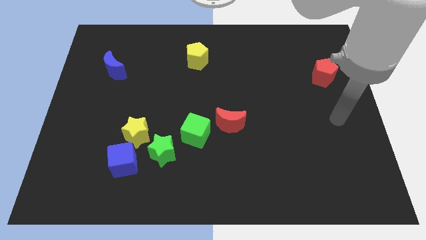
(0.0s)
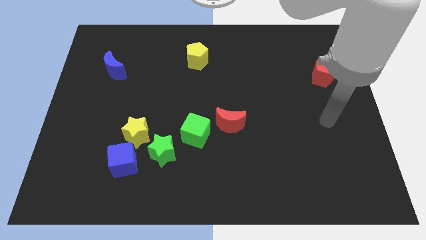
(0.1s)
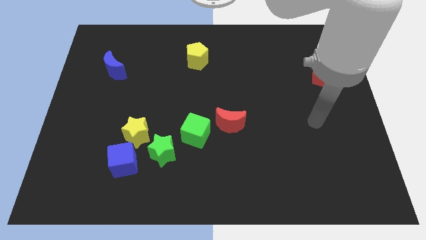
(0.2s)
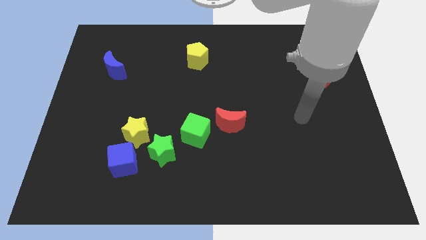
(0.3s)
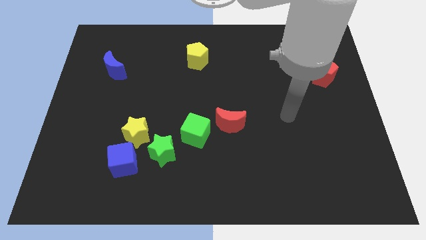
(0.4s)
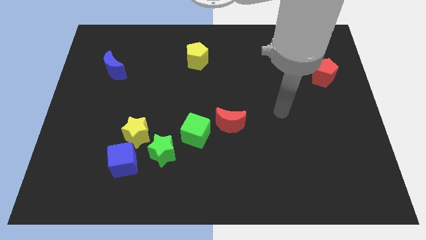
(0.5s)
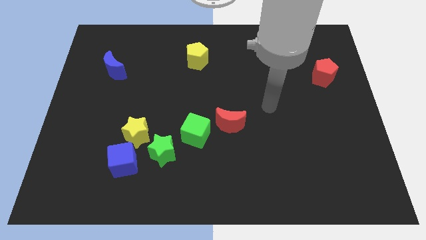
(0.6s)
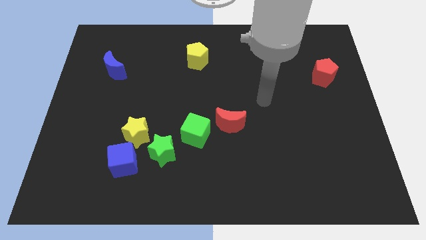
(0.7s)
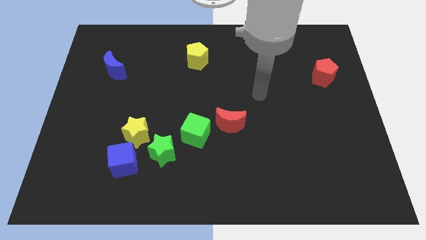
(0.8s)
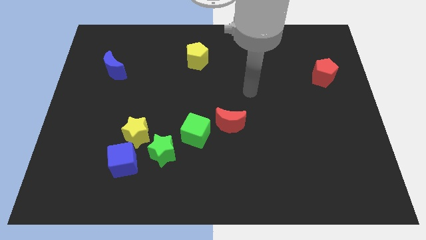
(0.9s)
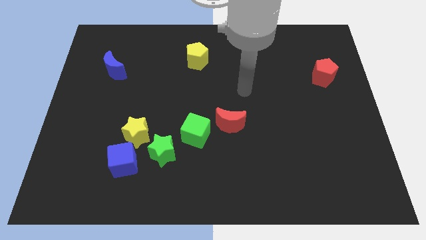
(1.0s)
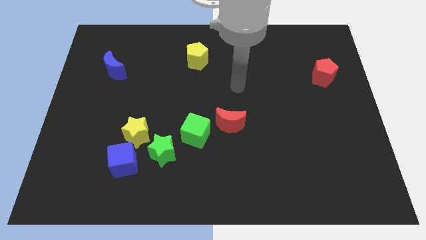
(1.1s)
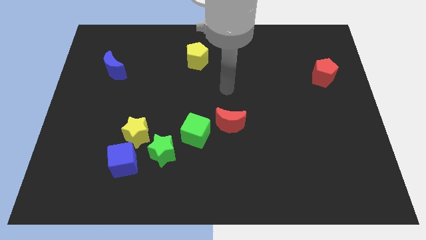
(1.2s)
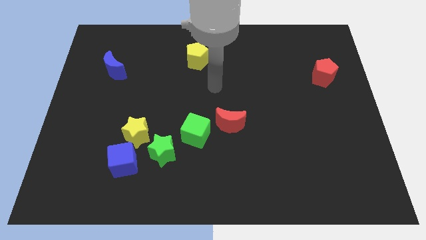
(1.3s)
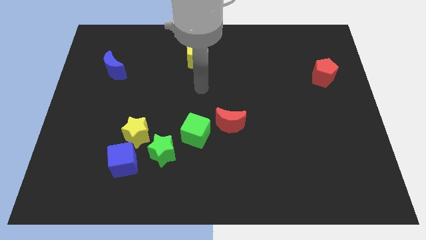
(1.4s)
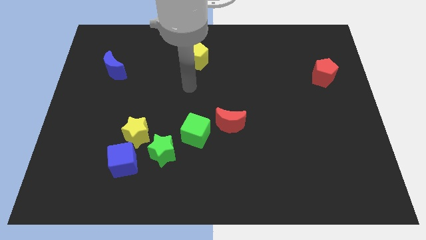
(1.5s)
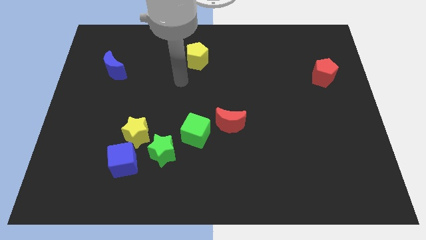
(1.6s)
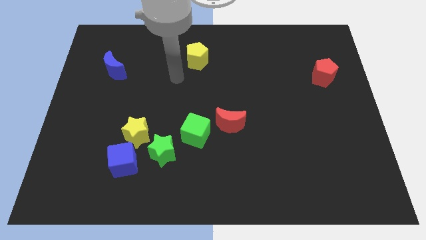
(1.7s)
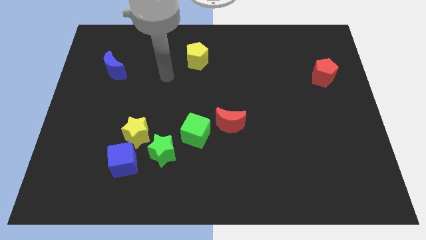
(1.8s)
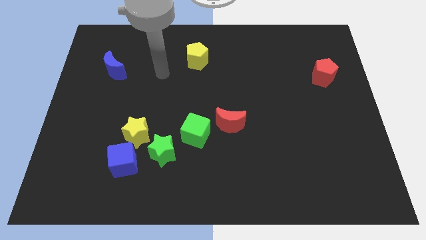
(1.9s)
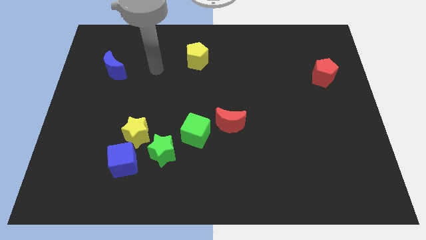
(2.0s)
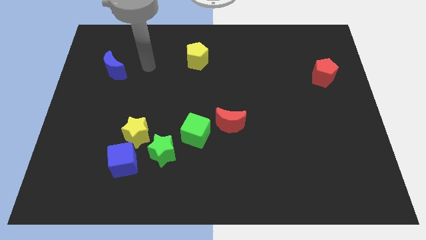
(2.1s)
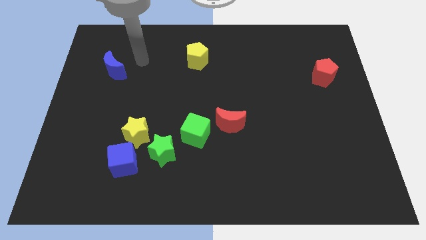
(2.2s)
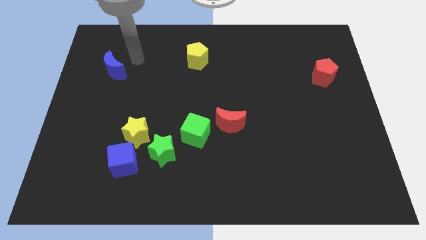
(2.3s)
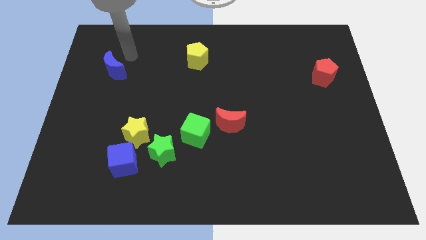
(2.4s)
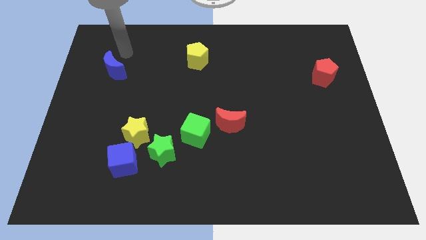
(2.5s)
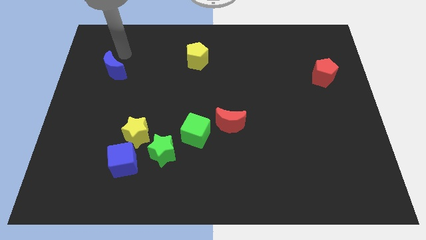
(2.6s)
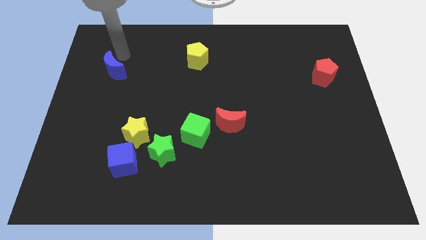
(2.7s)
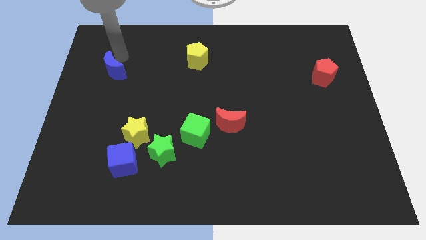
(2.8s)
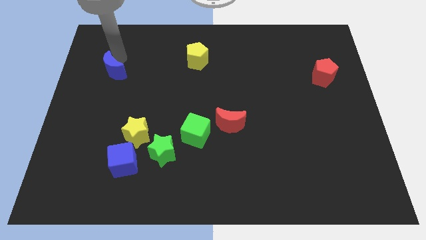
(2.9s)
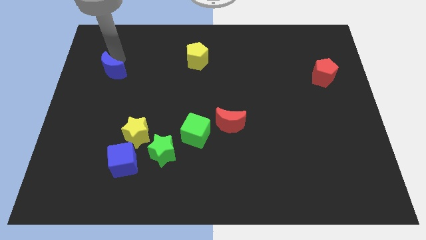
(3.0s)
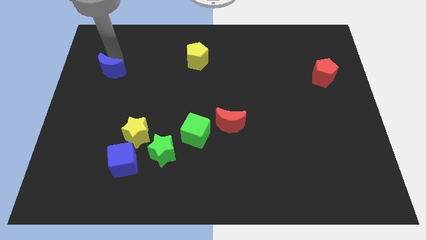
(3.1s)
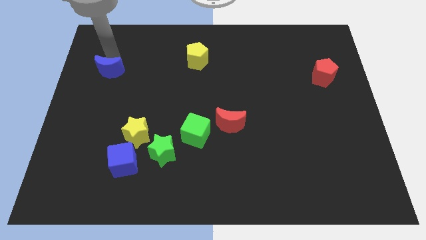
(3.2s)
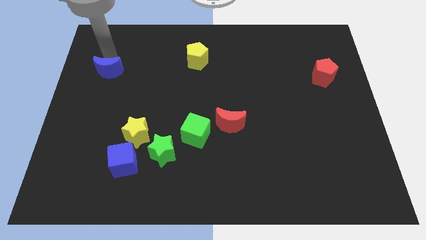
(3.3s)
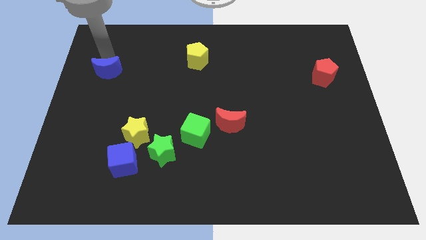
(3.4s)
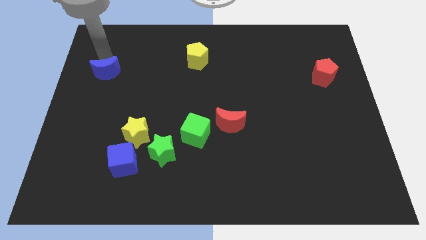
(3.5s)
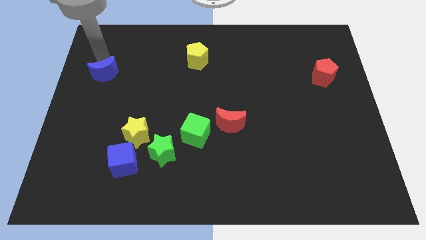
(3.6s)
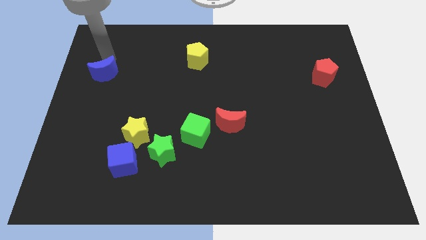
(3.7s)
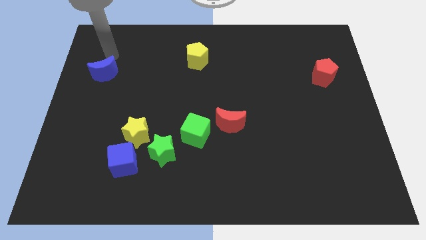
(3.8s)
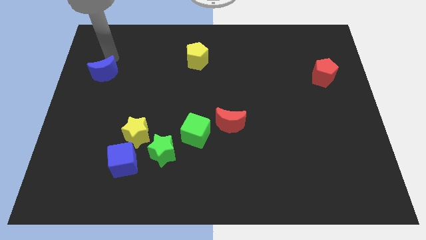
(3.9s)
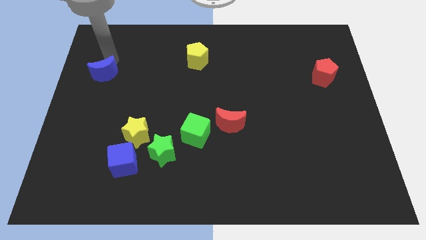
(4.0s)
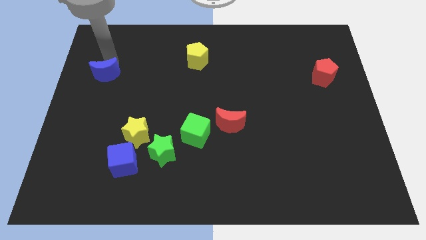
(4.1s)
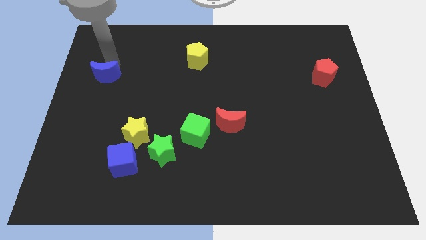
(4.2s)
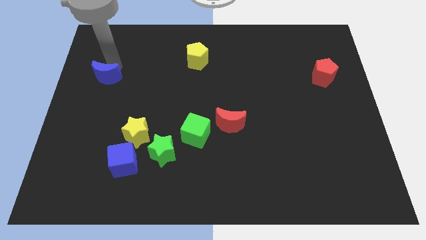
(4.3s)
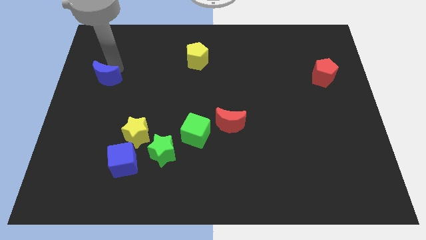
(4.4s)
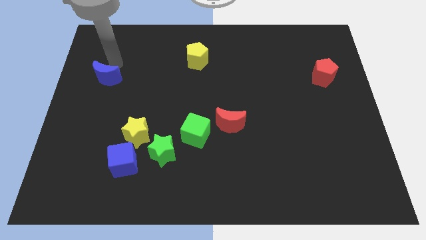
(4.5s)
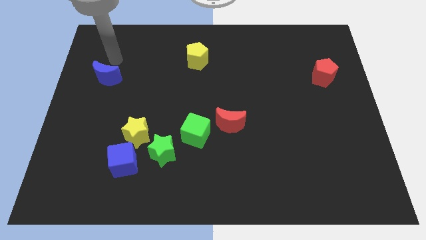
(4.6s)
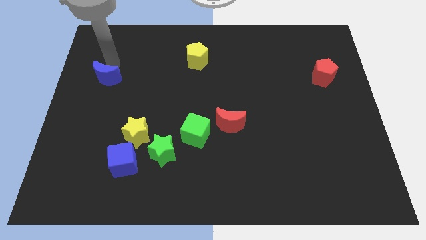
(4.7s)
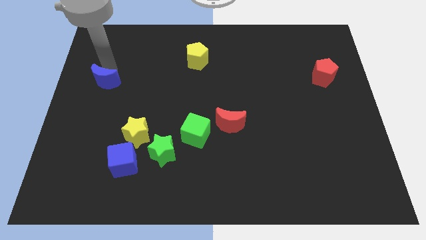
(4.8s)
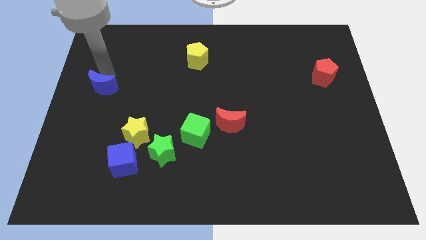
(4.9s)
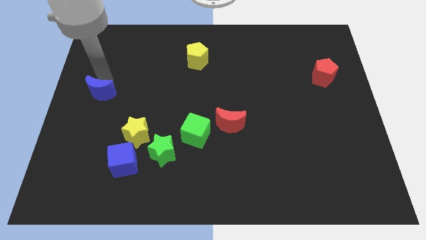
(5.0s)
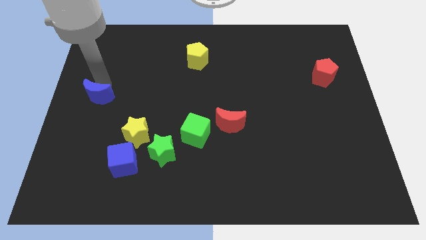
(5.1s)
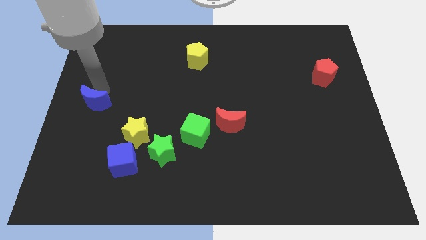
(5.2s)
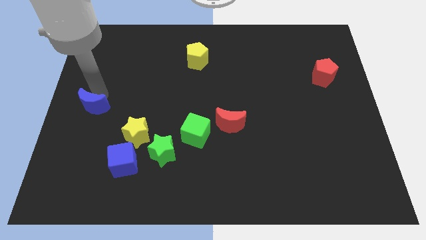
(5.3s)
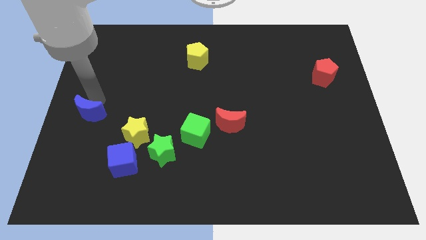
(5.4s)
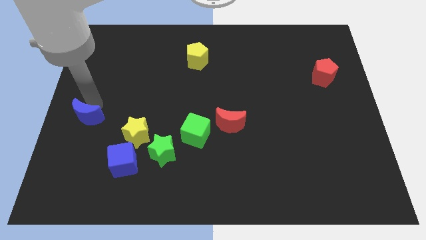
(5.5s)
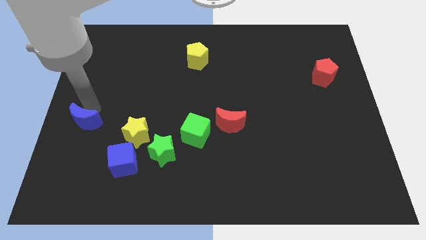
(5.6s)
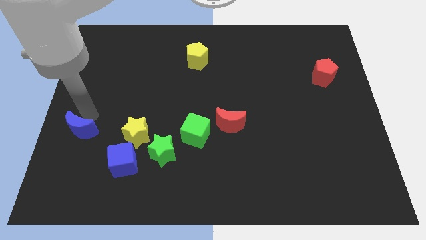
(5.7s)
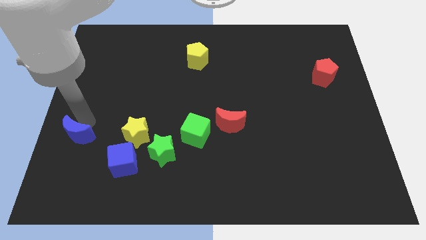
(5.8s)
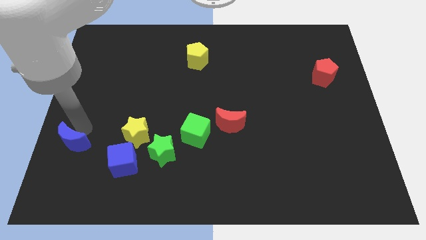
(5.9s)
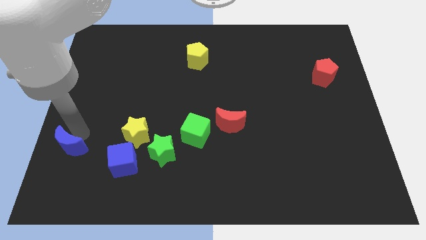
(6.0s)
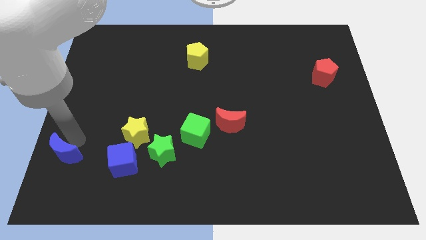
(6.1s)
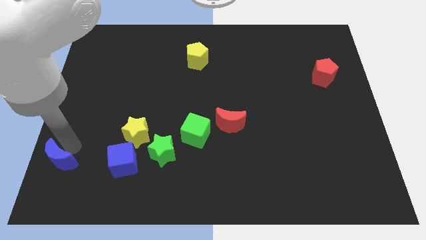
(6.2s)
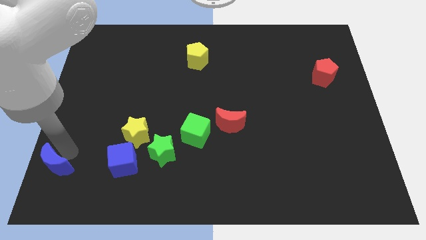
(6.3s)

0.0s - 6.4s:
move the blue moon to the bottom left corner
